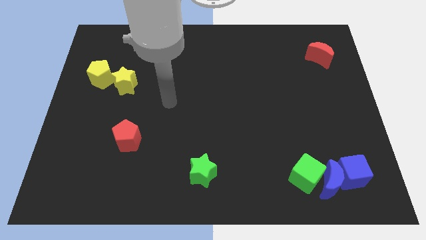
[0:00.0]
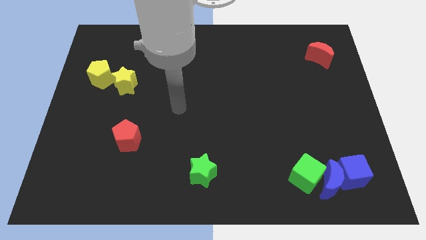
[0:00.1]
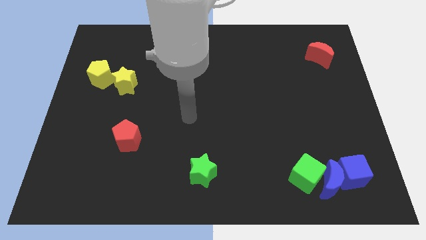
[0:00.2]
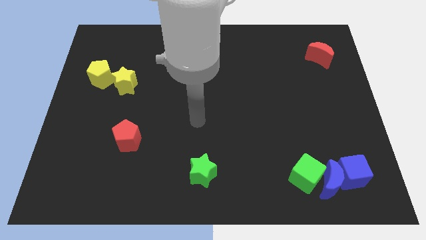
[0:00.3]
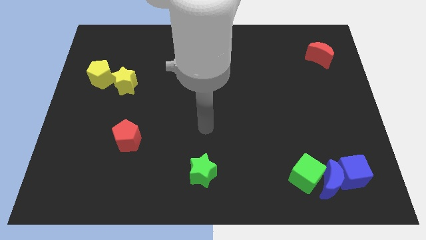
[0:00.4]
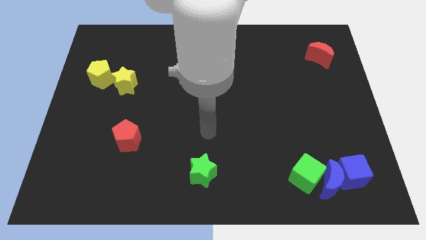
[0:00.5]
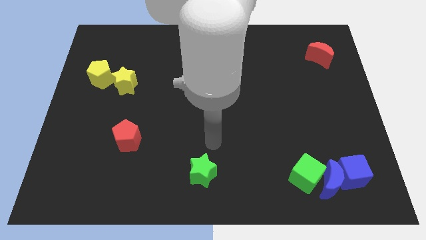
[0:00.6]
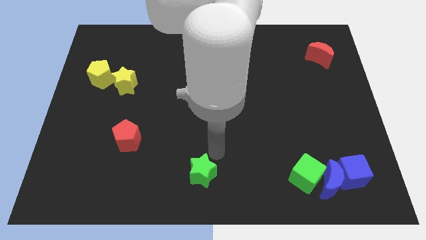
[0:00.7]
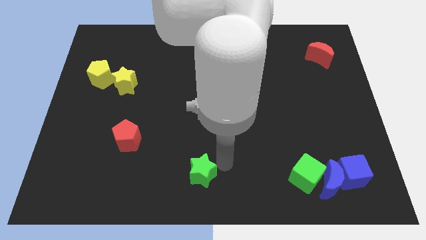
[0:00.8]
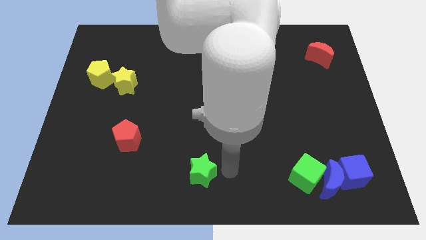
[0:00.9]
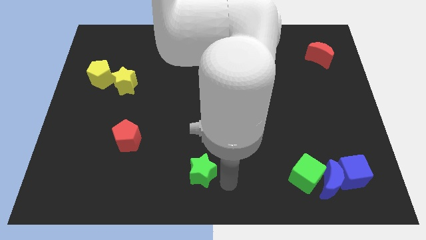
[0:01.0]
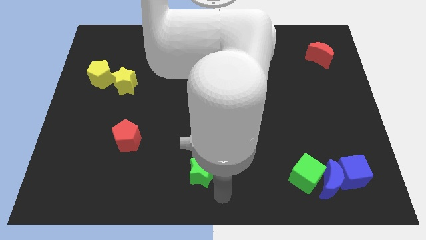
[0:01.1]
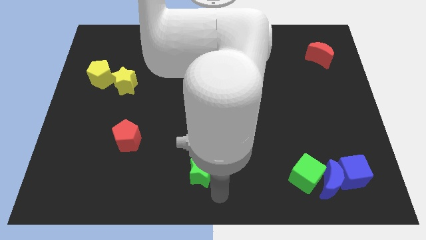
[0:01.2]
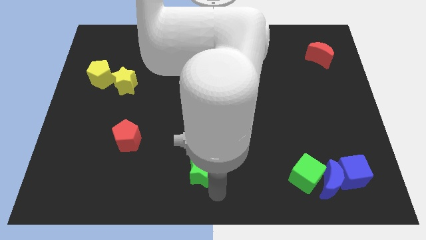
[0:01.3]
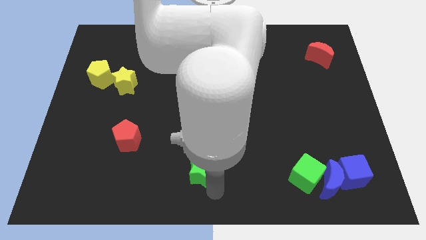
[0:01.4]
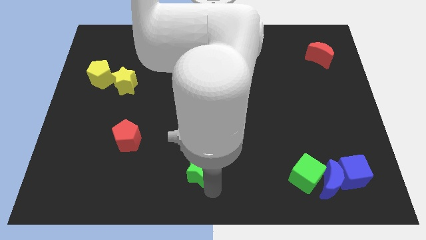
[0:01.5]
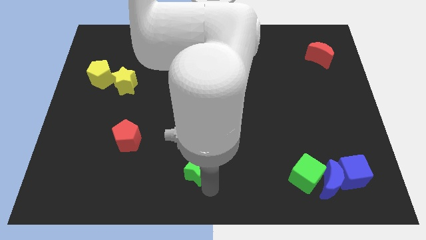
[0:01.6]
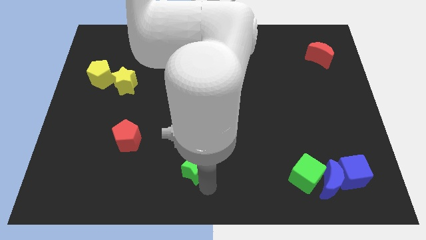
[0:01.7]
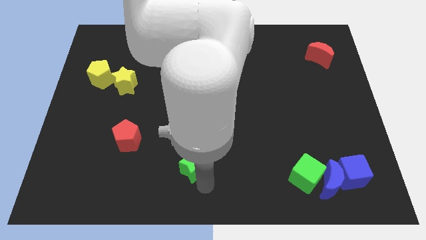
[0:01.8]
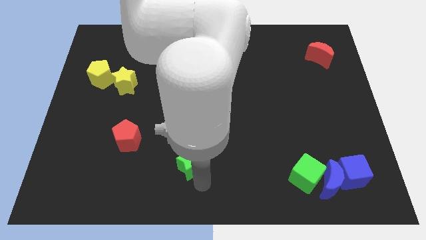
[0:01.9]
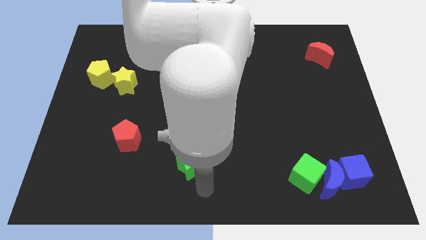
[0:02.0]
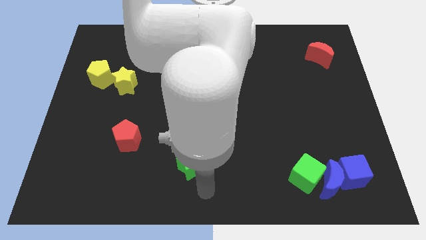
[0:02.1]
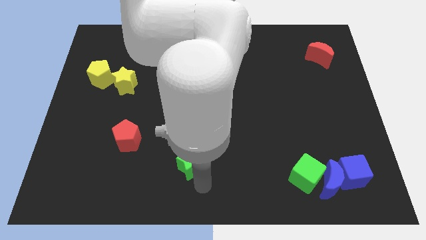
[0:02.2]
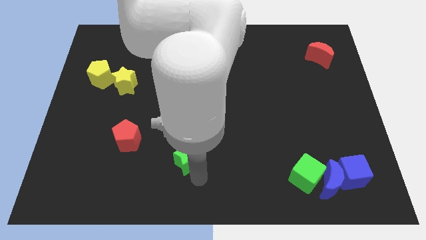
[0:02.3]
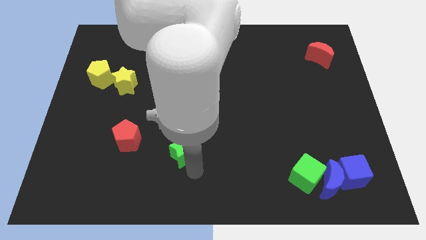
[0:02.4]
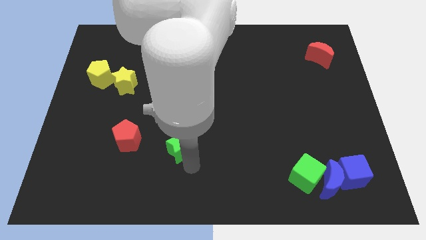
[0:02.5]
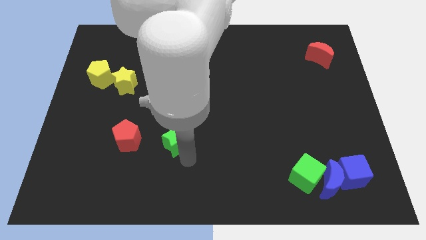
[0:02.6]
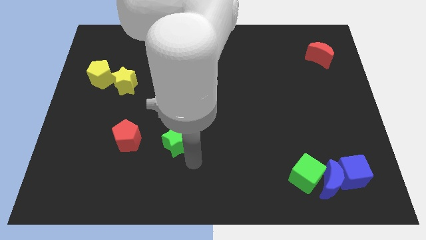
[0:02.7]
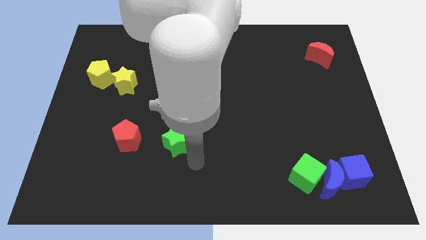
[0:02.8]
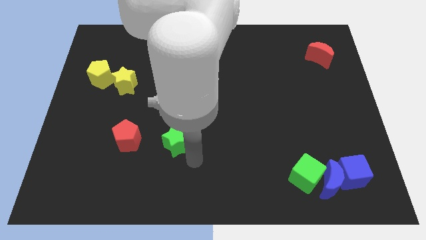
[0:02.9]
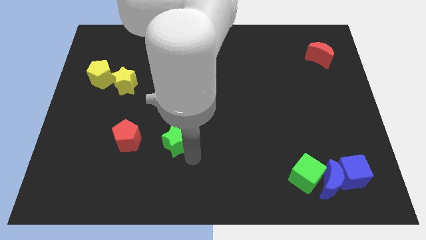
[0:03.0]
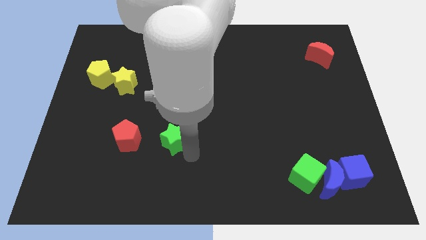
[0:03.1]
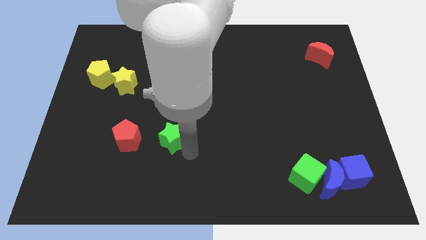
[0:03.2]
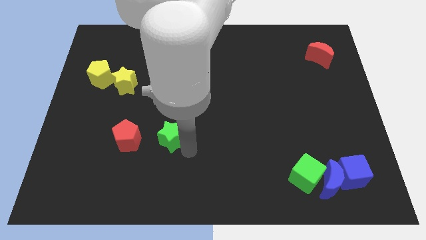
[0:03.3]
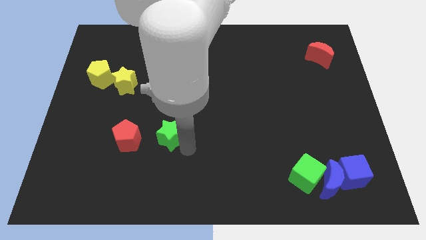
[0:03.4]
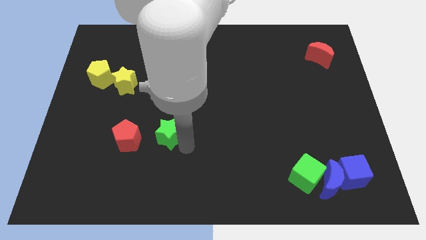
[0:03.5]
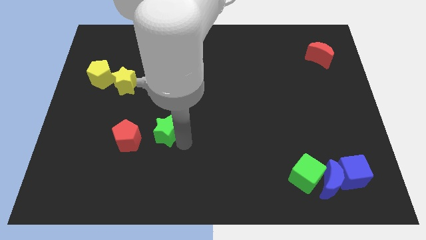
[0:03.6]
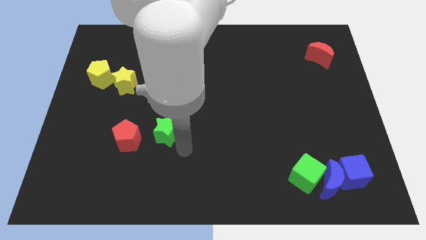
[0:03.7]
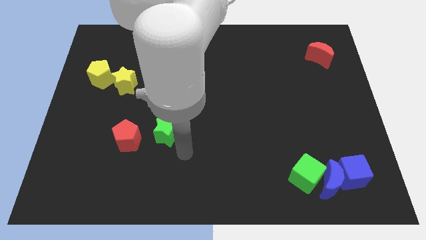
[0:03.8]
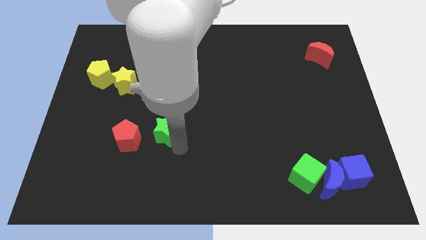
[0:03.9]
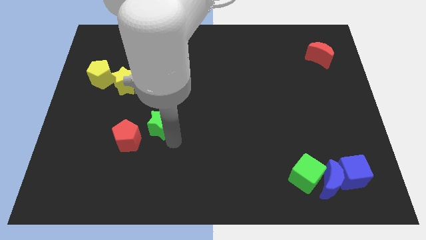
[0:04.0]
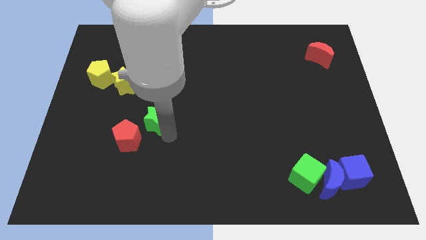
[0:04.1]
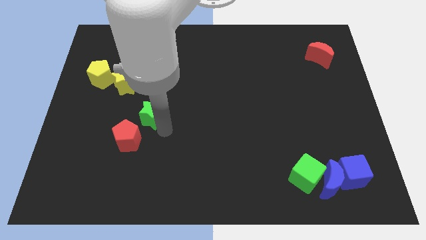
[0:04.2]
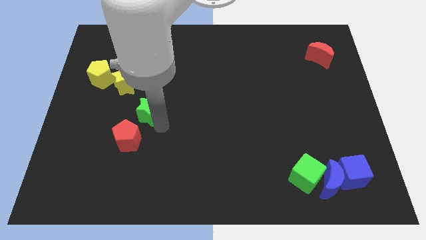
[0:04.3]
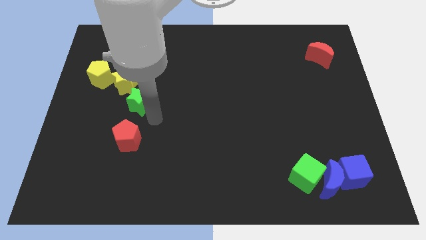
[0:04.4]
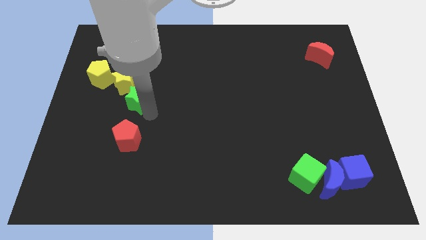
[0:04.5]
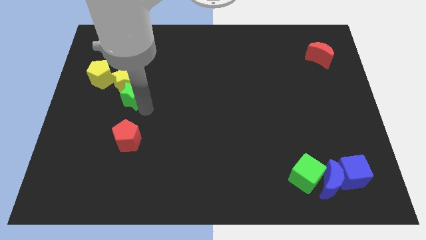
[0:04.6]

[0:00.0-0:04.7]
slide the green star towards the yellow star

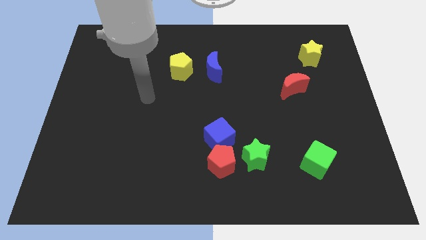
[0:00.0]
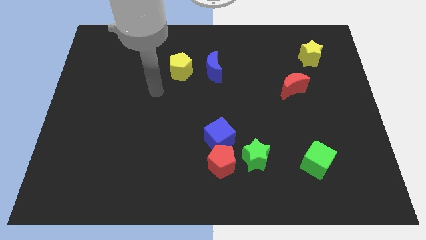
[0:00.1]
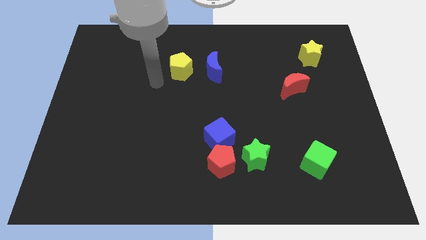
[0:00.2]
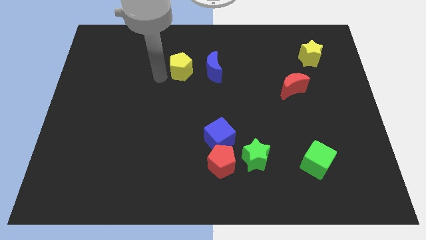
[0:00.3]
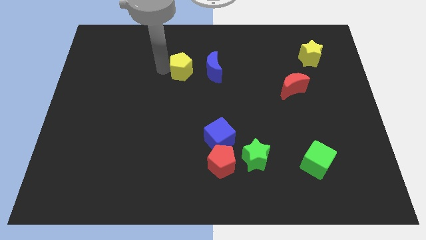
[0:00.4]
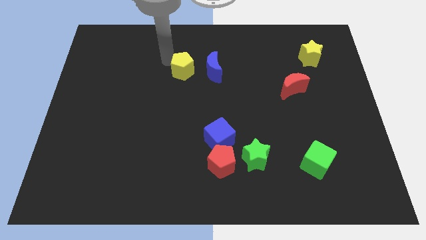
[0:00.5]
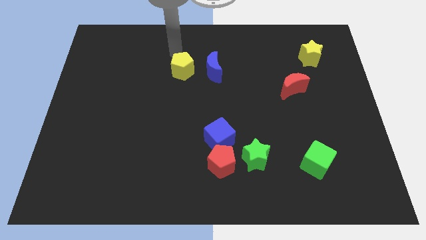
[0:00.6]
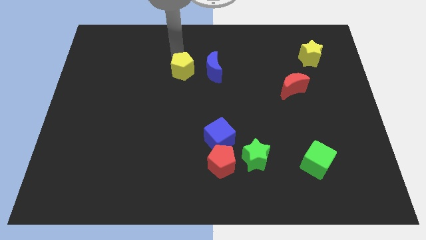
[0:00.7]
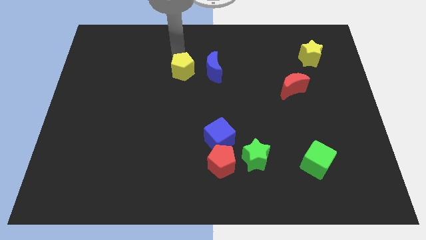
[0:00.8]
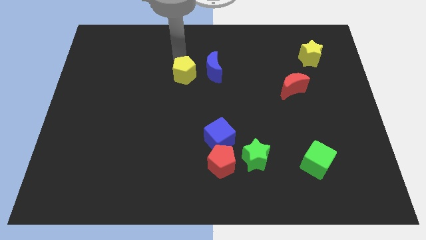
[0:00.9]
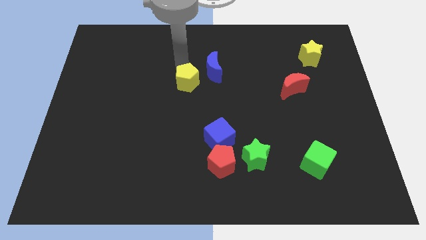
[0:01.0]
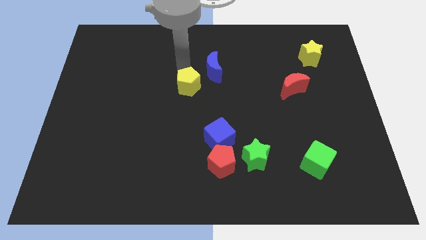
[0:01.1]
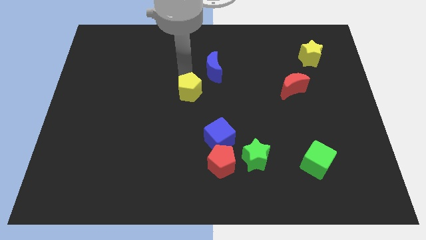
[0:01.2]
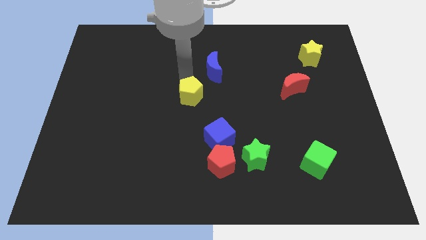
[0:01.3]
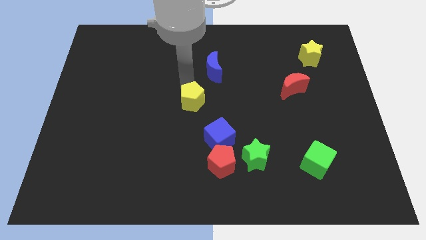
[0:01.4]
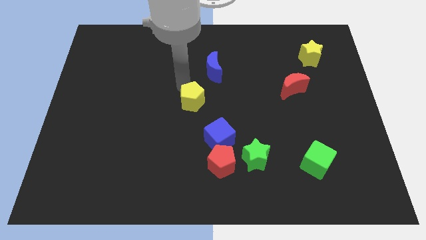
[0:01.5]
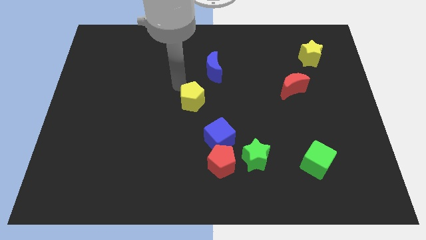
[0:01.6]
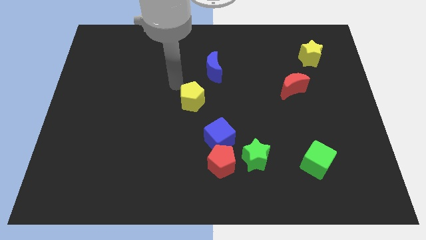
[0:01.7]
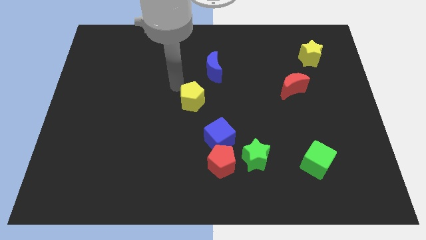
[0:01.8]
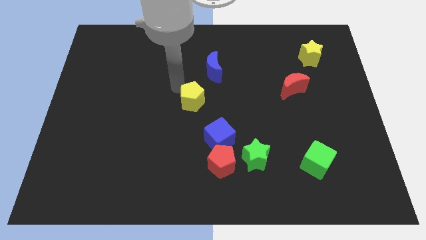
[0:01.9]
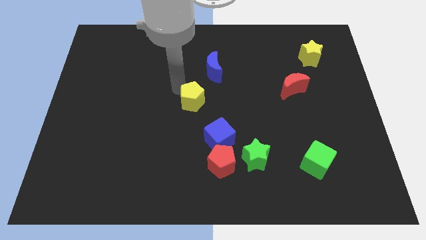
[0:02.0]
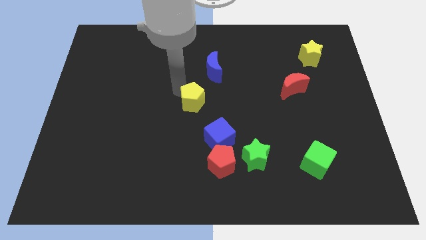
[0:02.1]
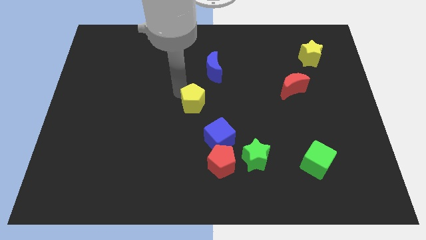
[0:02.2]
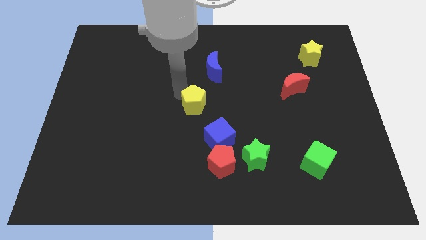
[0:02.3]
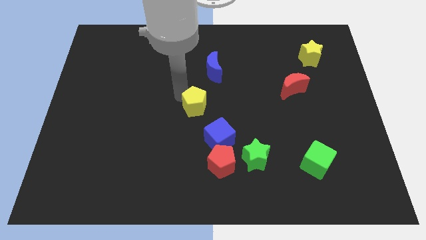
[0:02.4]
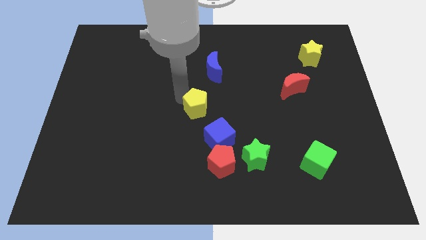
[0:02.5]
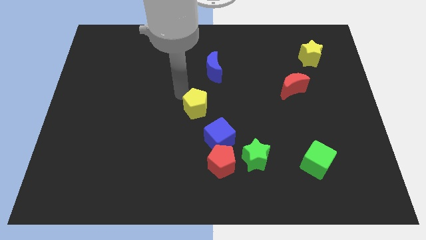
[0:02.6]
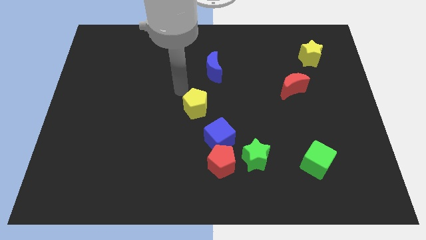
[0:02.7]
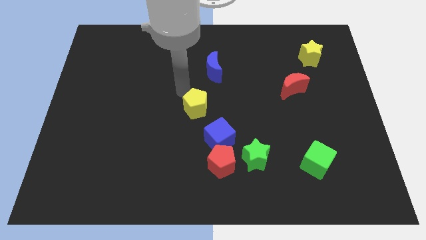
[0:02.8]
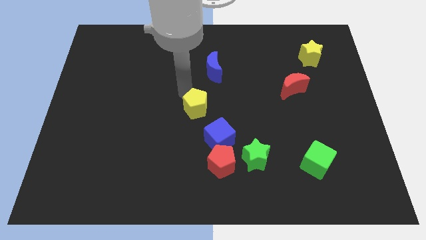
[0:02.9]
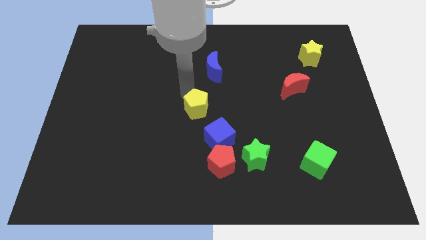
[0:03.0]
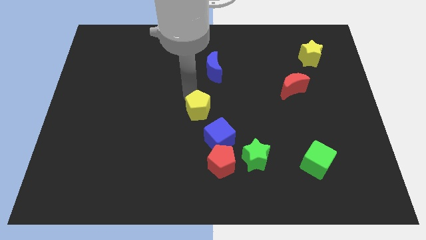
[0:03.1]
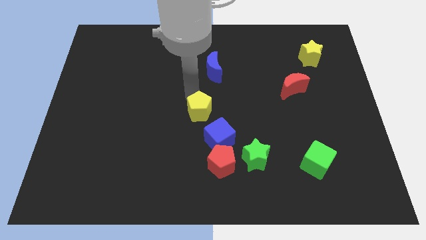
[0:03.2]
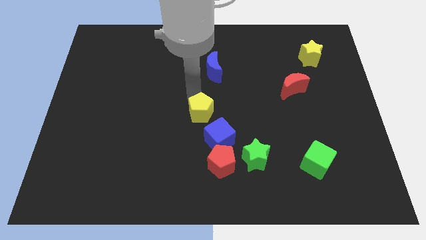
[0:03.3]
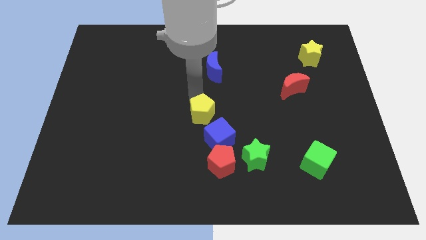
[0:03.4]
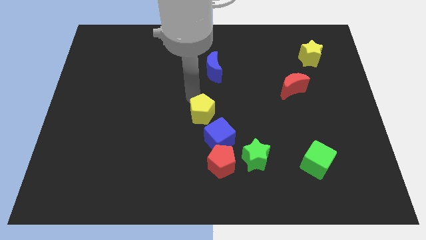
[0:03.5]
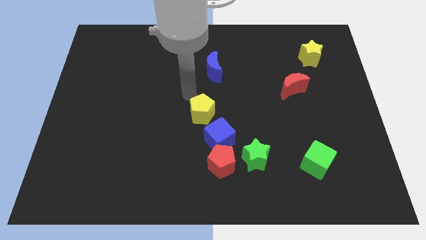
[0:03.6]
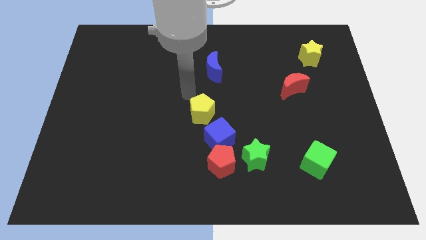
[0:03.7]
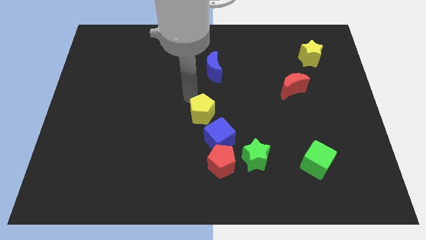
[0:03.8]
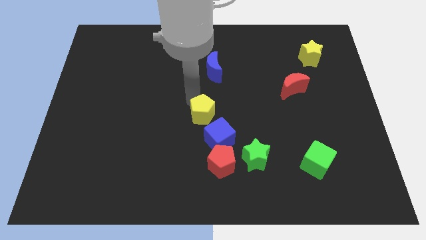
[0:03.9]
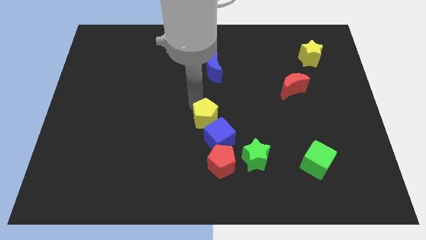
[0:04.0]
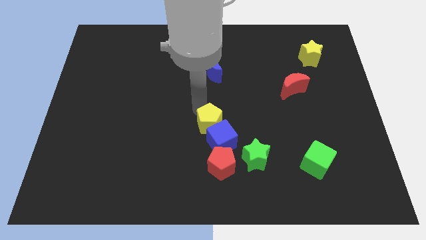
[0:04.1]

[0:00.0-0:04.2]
push the yellow pentagon next to the blue cube
